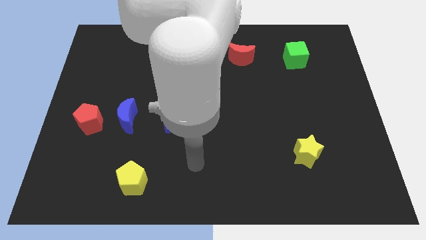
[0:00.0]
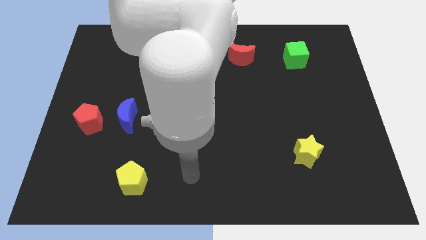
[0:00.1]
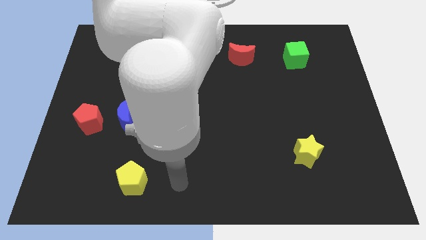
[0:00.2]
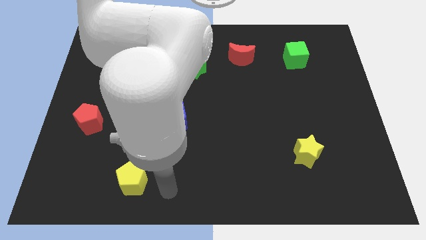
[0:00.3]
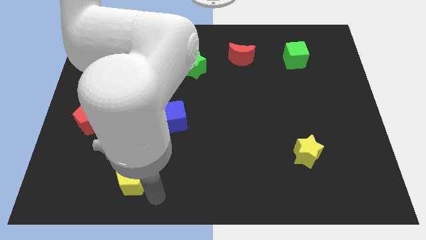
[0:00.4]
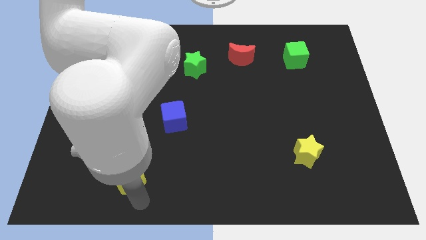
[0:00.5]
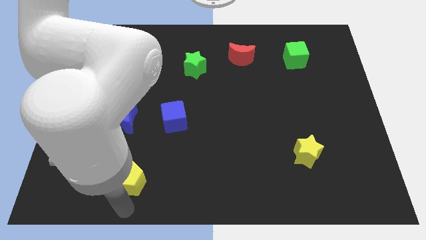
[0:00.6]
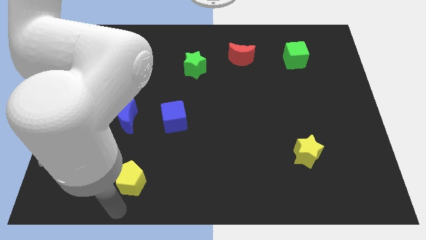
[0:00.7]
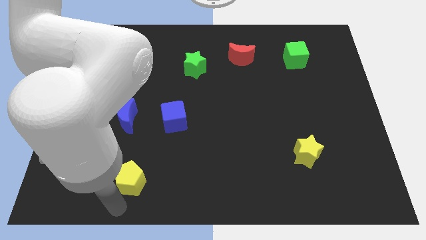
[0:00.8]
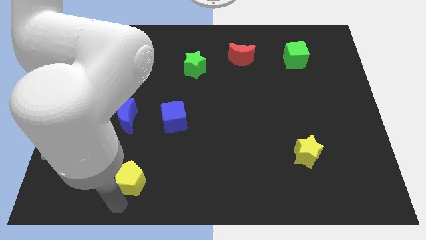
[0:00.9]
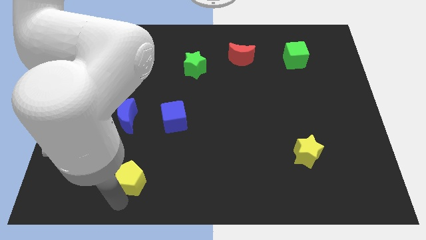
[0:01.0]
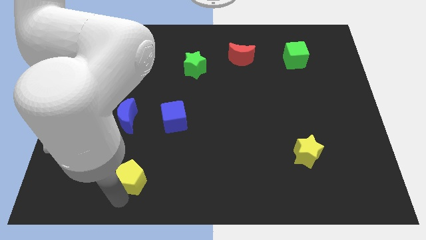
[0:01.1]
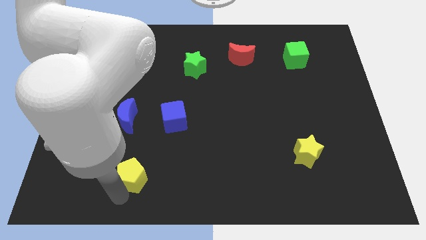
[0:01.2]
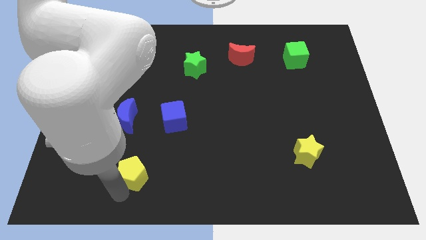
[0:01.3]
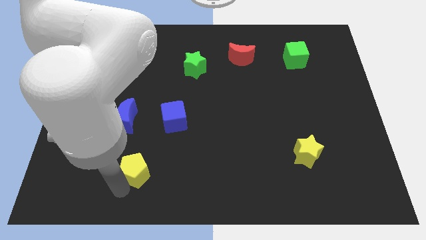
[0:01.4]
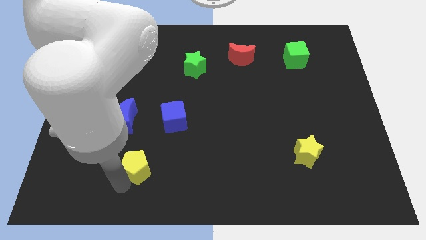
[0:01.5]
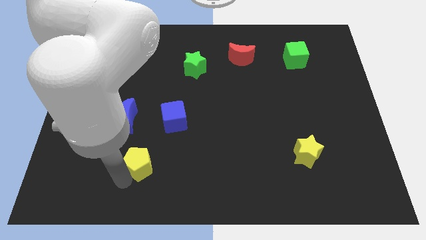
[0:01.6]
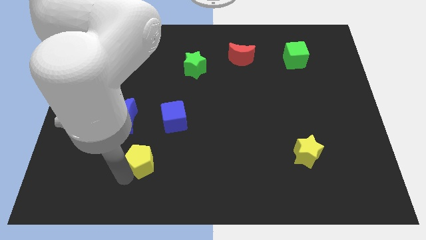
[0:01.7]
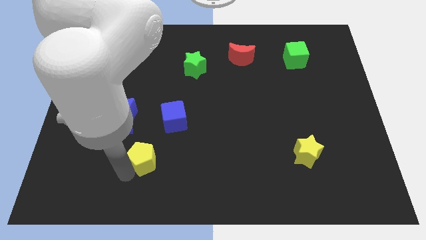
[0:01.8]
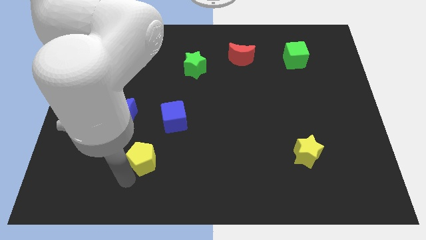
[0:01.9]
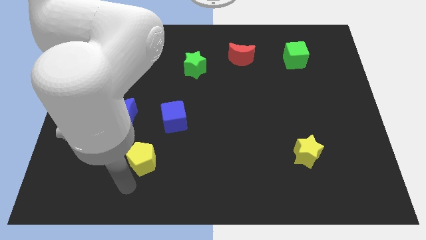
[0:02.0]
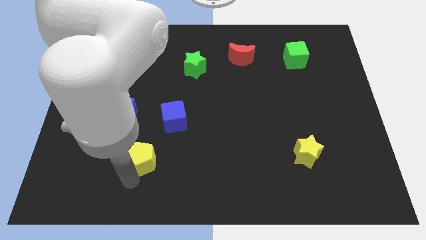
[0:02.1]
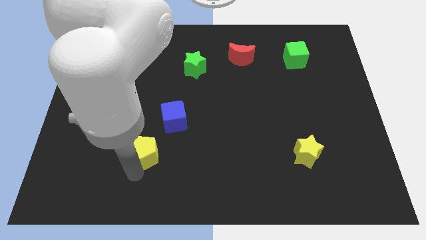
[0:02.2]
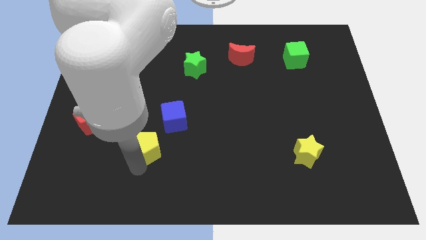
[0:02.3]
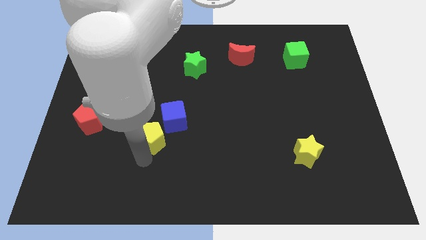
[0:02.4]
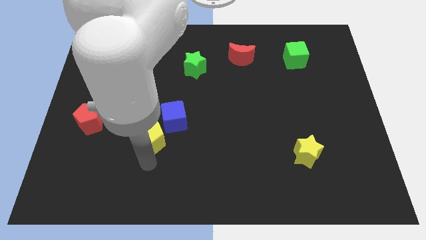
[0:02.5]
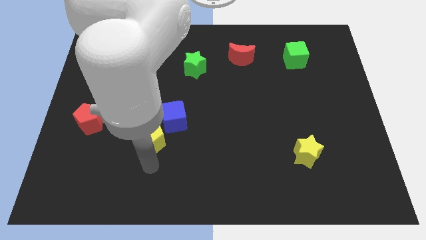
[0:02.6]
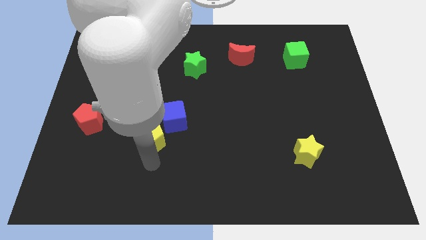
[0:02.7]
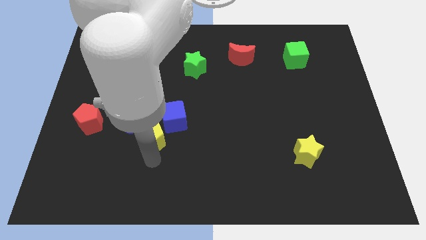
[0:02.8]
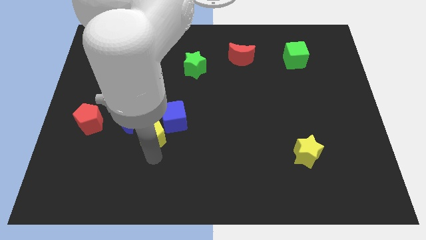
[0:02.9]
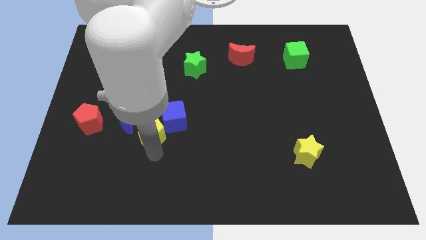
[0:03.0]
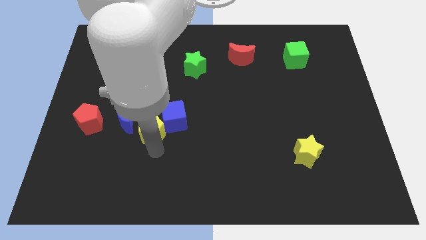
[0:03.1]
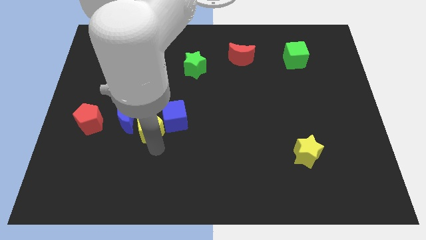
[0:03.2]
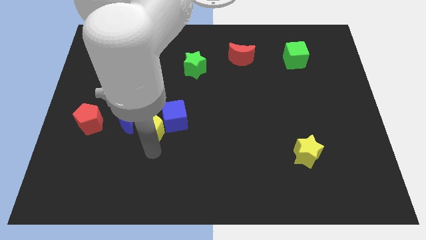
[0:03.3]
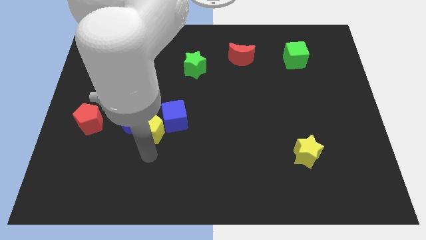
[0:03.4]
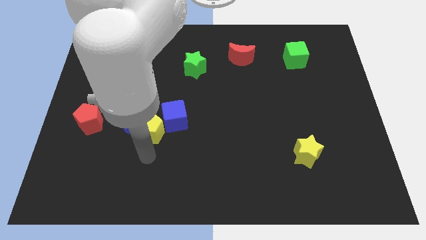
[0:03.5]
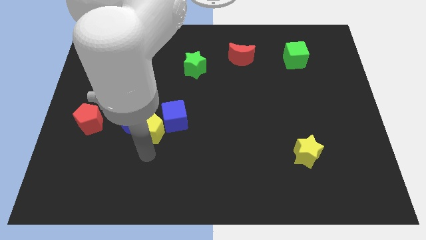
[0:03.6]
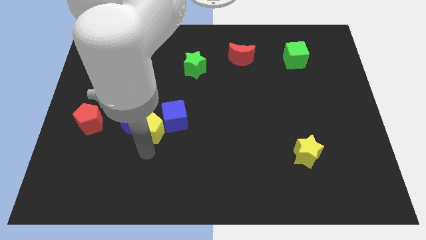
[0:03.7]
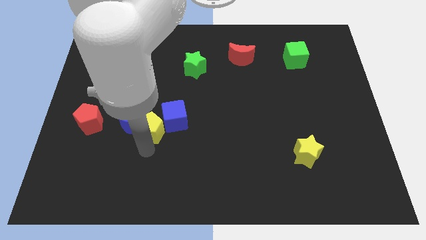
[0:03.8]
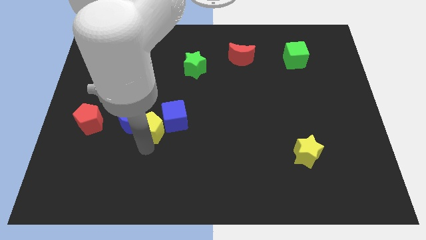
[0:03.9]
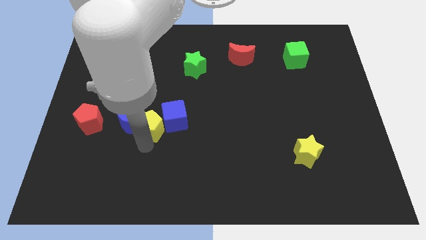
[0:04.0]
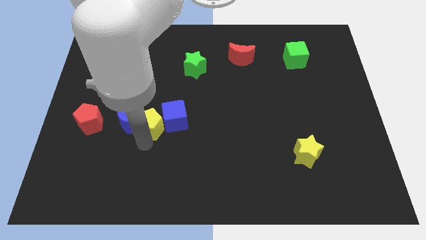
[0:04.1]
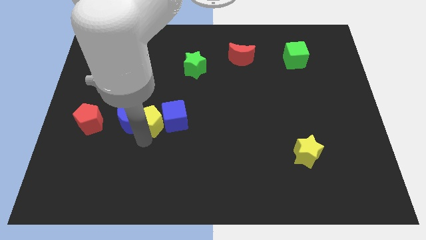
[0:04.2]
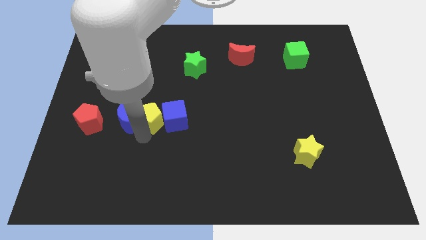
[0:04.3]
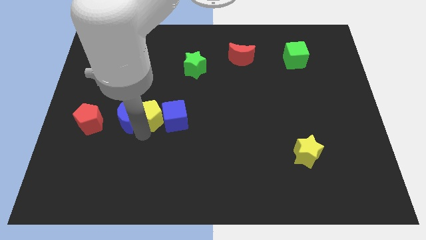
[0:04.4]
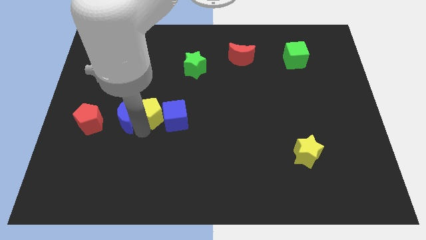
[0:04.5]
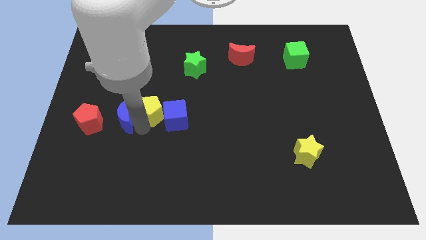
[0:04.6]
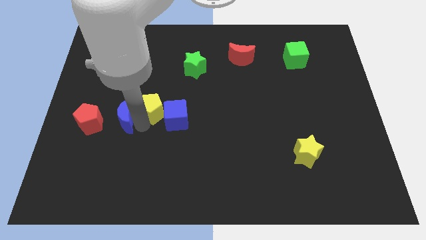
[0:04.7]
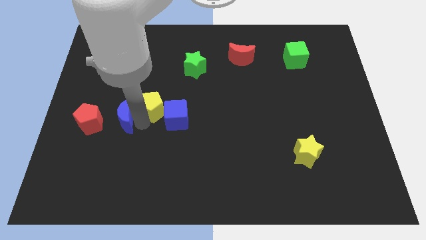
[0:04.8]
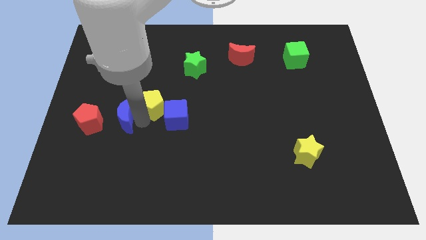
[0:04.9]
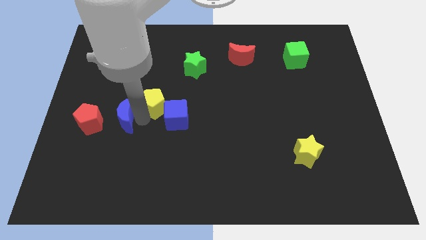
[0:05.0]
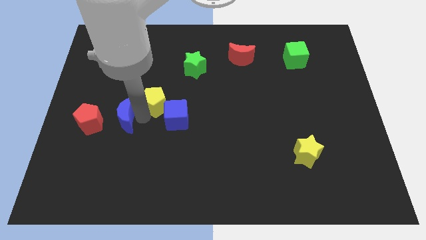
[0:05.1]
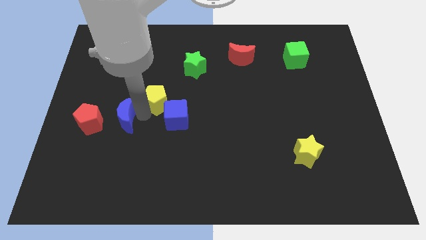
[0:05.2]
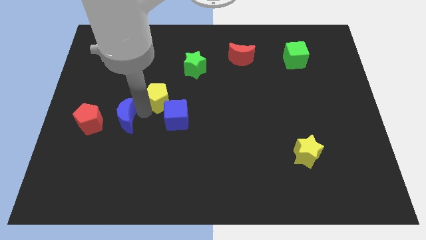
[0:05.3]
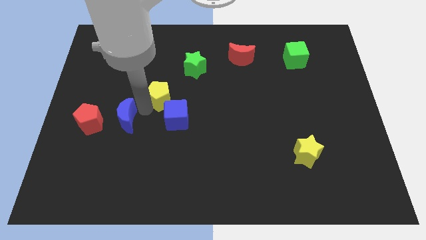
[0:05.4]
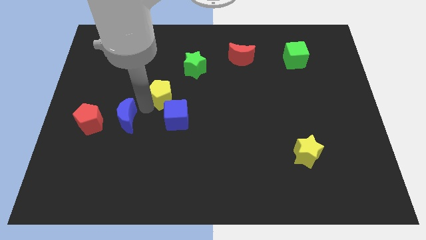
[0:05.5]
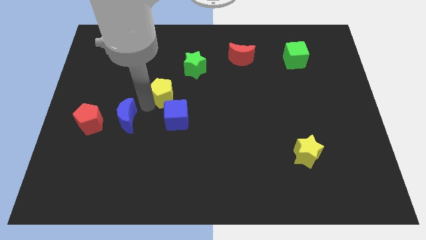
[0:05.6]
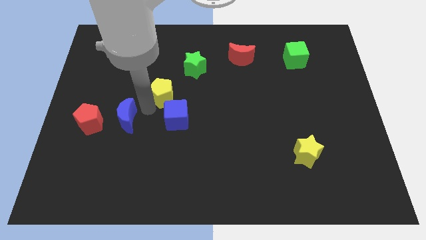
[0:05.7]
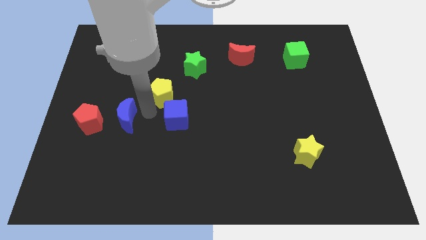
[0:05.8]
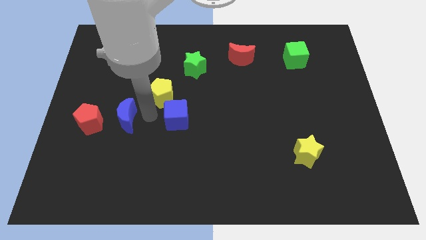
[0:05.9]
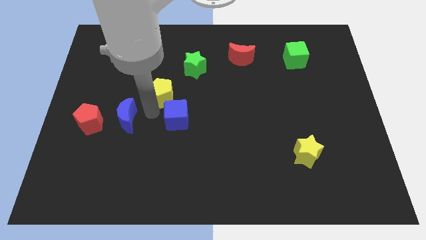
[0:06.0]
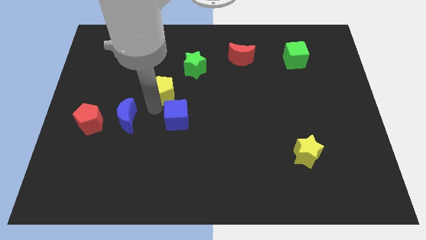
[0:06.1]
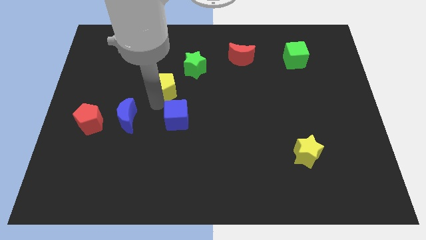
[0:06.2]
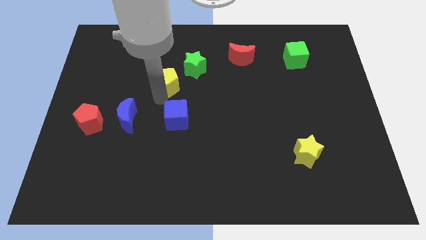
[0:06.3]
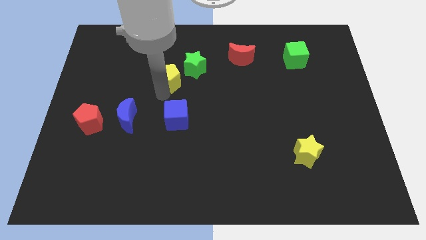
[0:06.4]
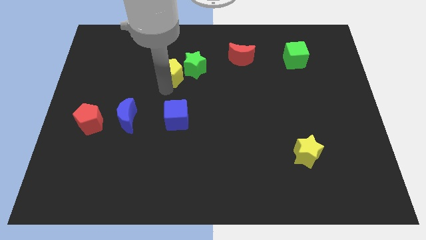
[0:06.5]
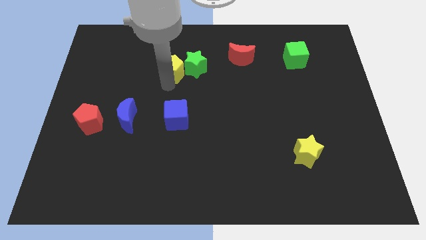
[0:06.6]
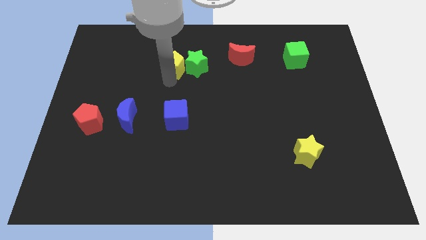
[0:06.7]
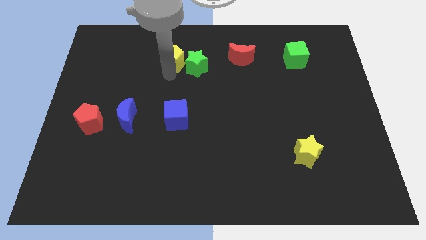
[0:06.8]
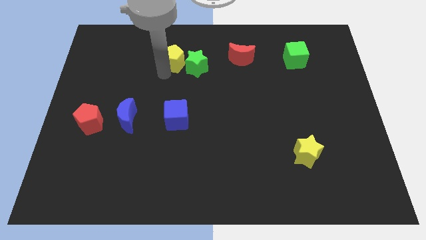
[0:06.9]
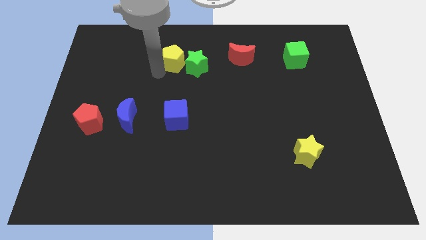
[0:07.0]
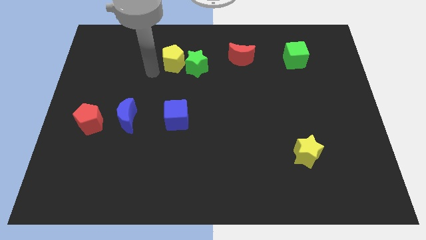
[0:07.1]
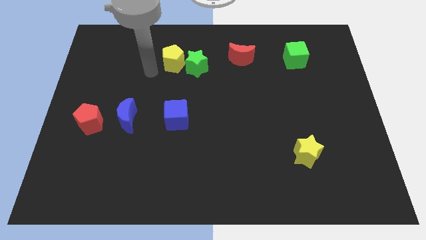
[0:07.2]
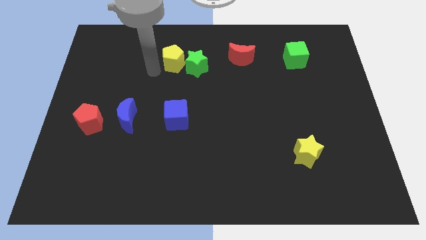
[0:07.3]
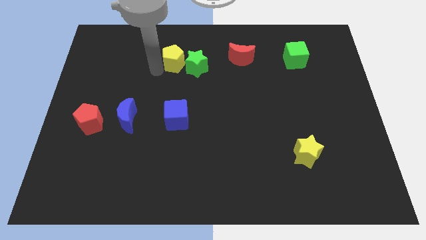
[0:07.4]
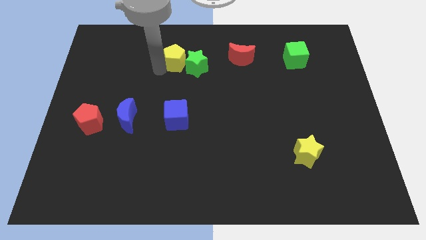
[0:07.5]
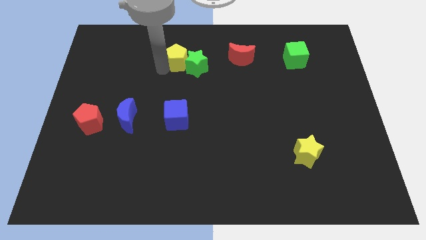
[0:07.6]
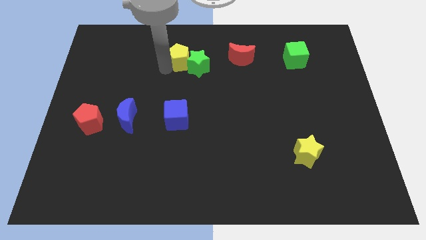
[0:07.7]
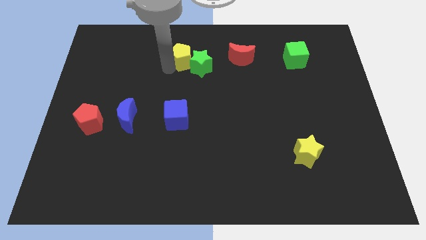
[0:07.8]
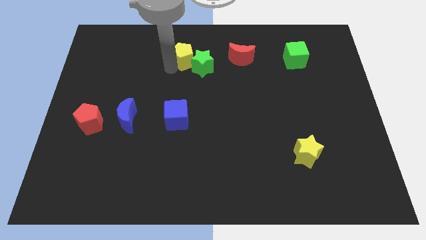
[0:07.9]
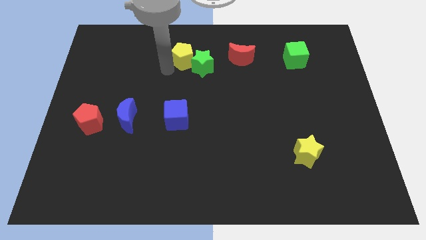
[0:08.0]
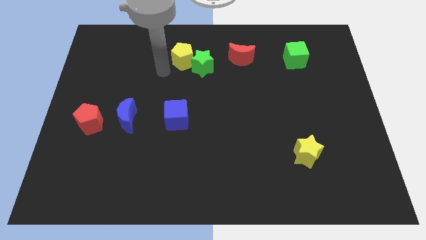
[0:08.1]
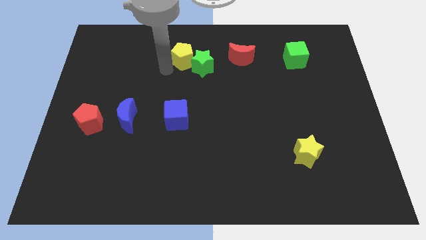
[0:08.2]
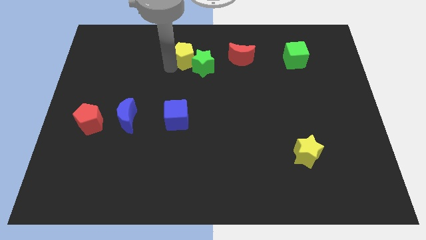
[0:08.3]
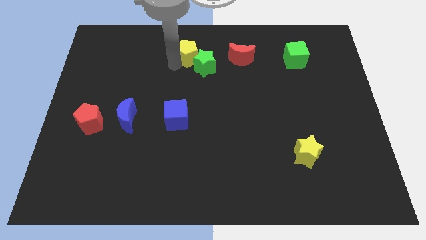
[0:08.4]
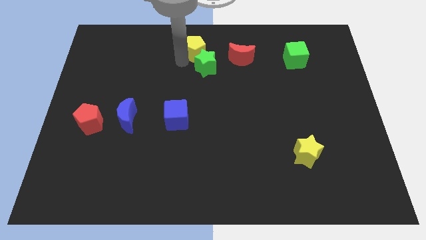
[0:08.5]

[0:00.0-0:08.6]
move the yellow pentagon to the towards your base
